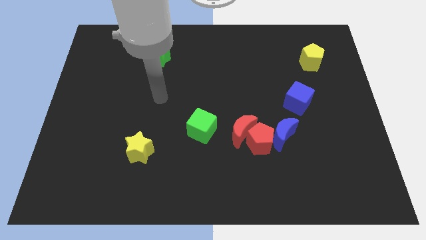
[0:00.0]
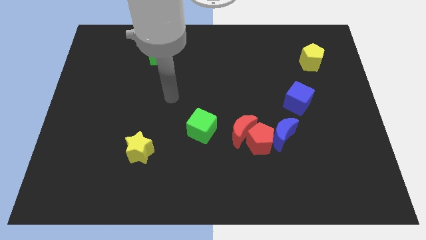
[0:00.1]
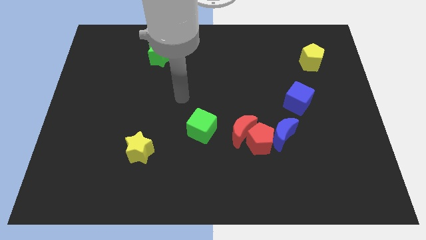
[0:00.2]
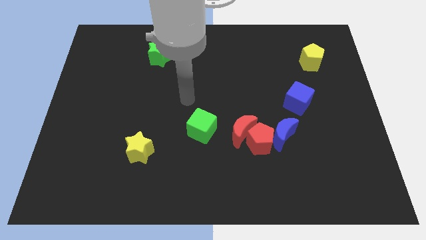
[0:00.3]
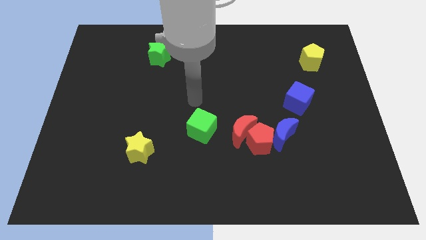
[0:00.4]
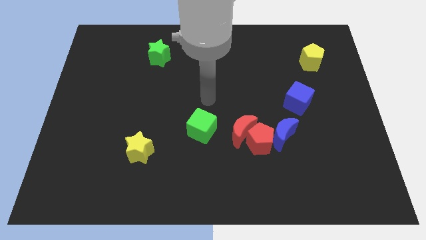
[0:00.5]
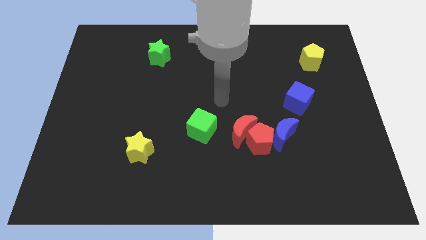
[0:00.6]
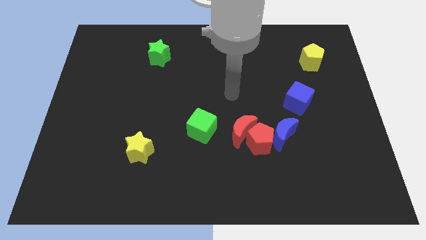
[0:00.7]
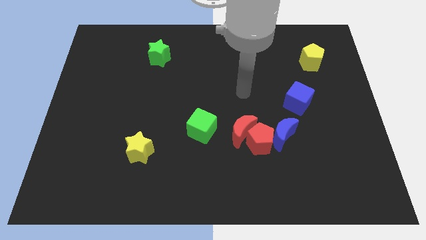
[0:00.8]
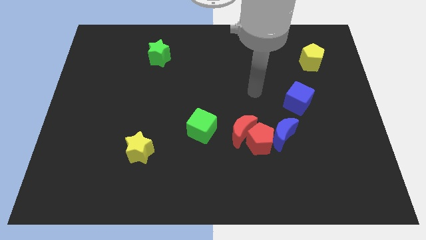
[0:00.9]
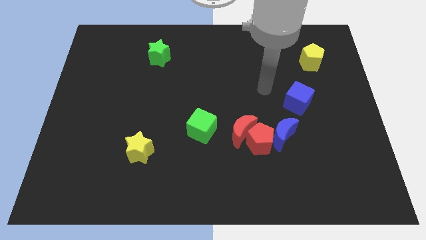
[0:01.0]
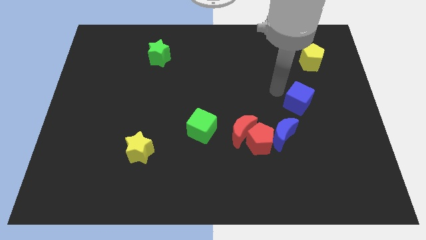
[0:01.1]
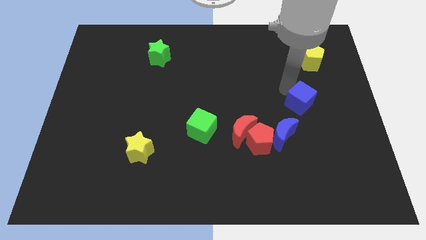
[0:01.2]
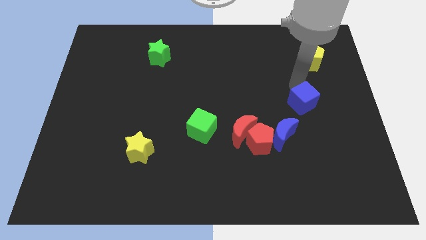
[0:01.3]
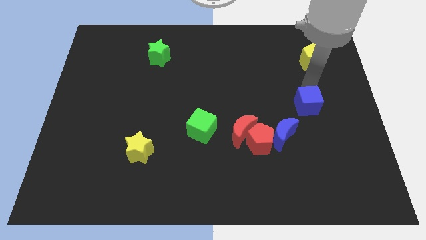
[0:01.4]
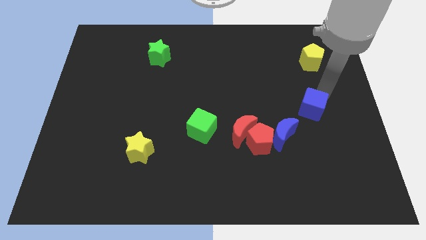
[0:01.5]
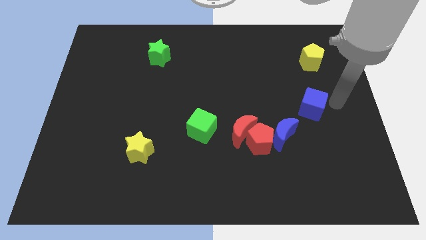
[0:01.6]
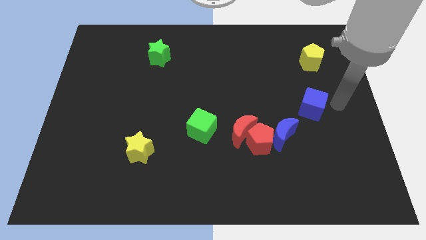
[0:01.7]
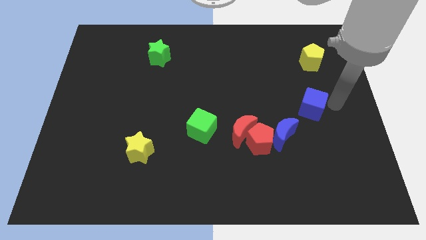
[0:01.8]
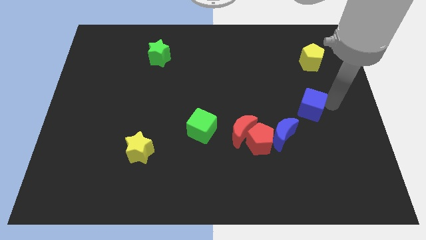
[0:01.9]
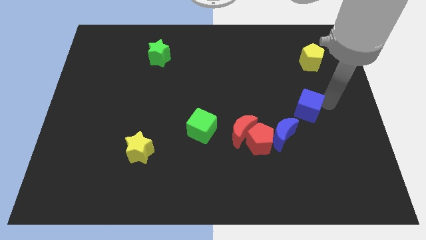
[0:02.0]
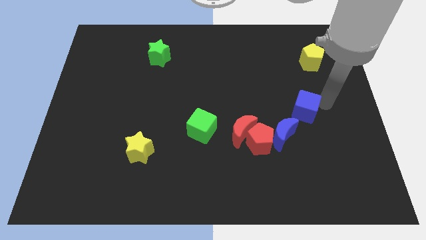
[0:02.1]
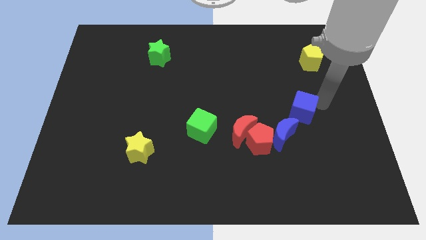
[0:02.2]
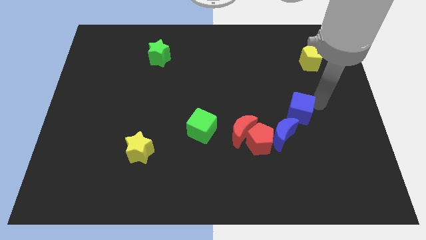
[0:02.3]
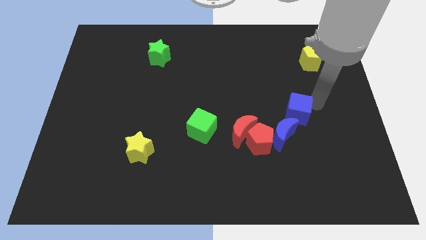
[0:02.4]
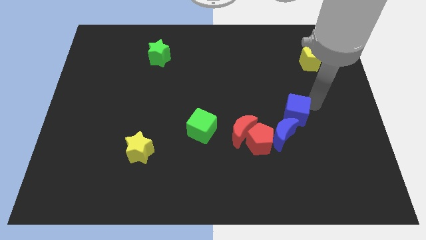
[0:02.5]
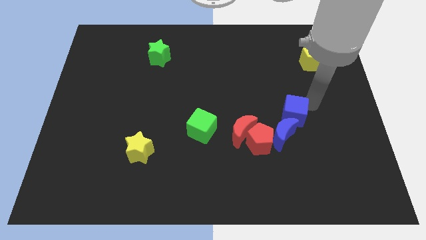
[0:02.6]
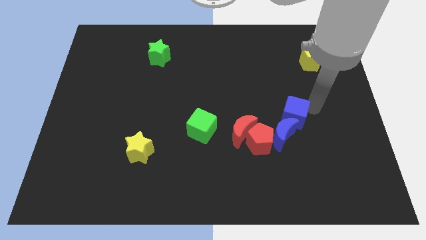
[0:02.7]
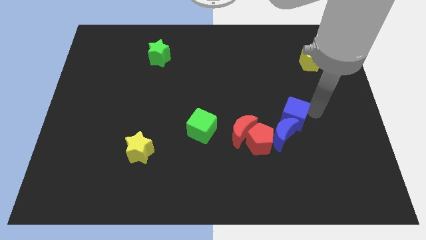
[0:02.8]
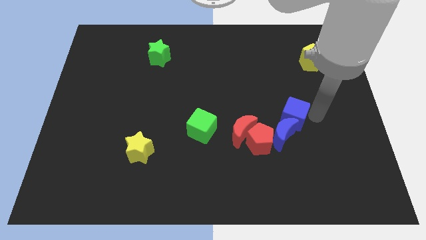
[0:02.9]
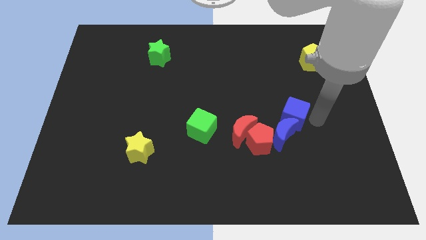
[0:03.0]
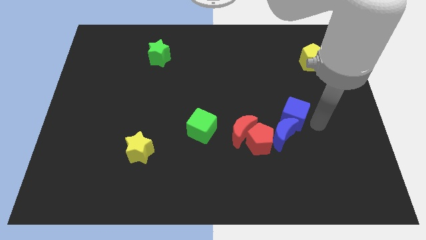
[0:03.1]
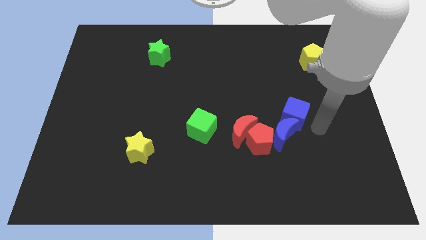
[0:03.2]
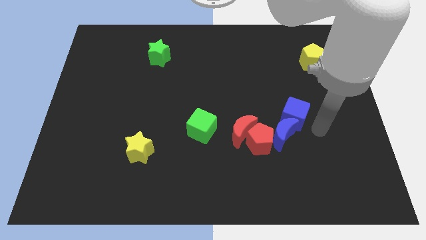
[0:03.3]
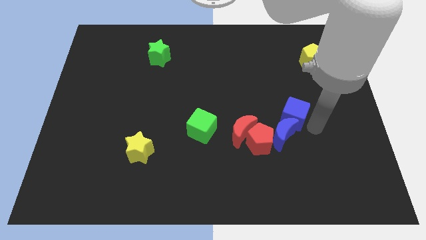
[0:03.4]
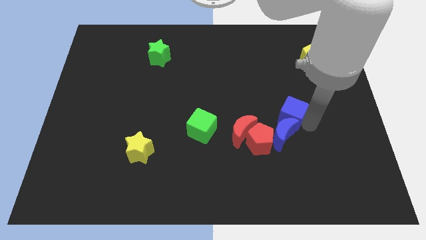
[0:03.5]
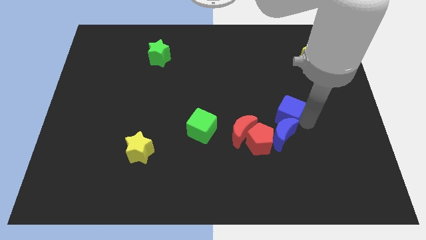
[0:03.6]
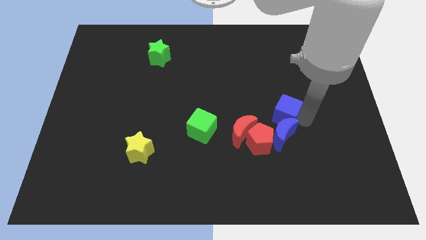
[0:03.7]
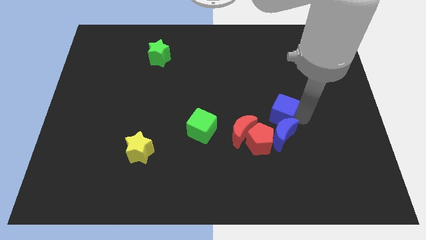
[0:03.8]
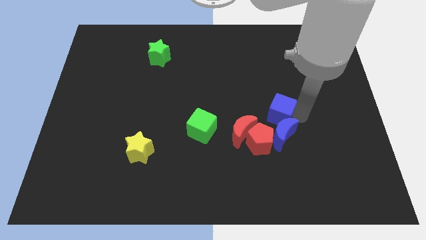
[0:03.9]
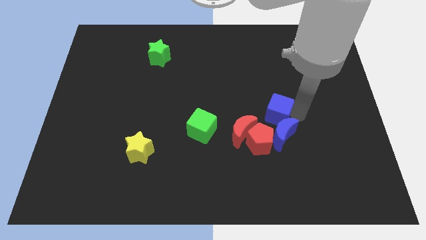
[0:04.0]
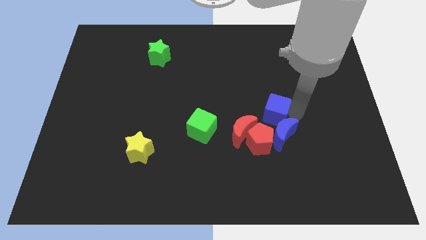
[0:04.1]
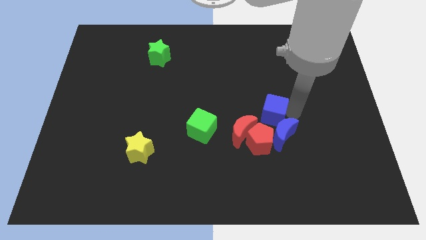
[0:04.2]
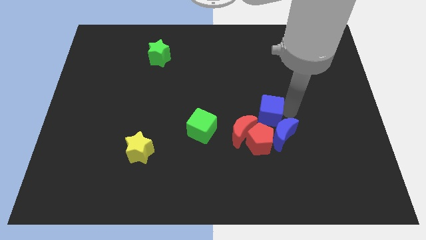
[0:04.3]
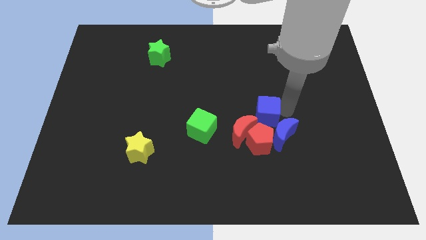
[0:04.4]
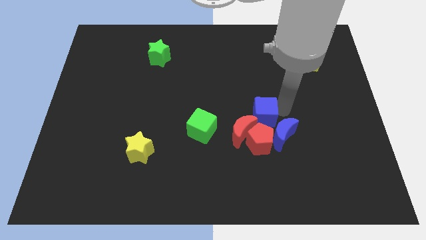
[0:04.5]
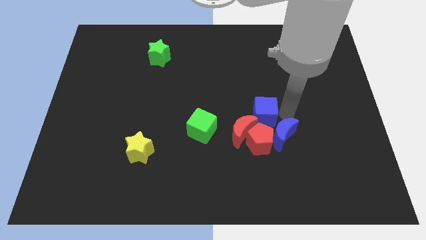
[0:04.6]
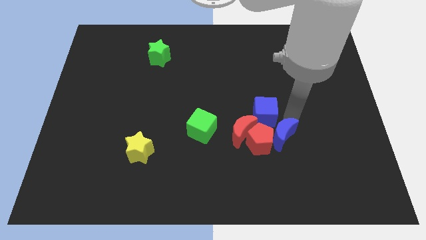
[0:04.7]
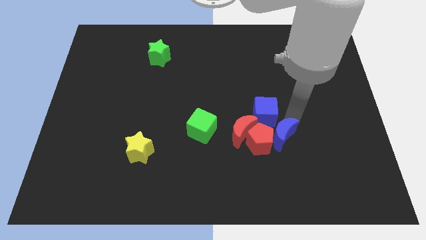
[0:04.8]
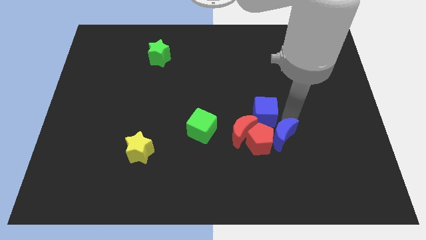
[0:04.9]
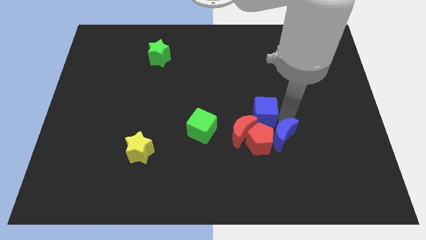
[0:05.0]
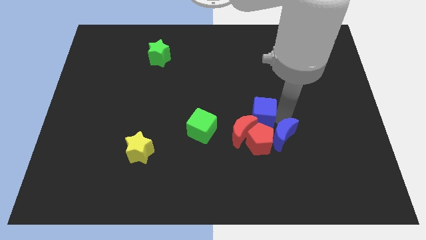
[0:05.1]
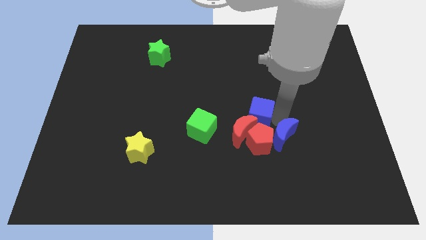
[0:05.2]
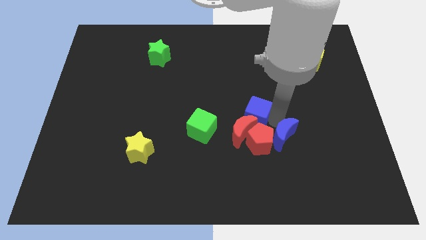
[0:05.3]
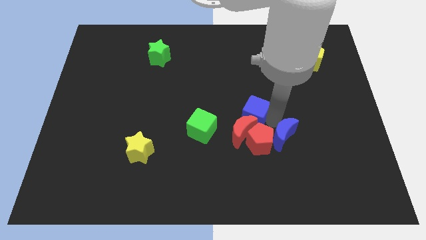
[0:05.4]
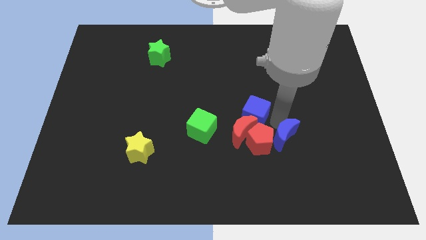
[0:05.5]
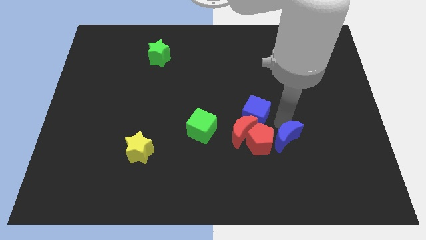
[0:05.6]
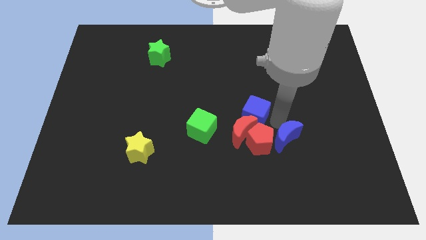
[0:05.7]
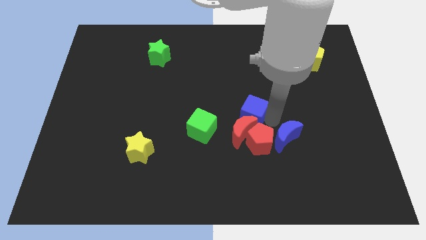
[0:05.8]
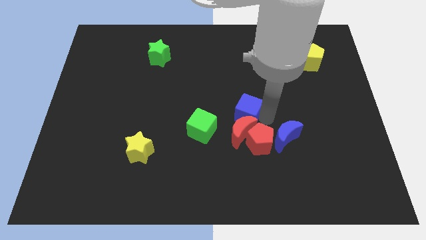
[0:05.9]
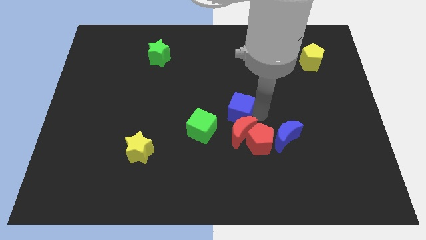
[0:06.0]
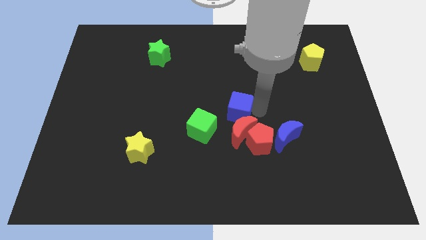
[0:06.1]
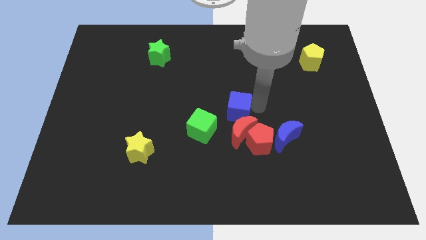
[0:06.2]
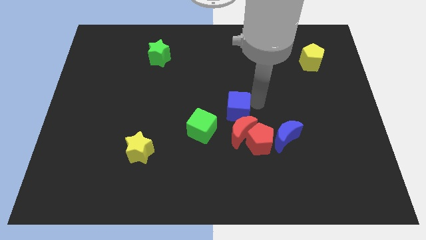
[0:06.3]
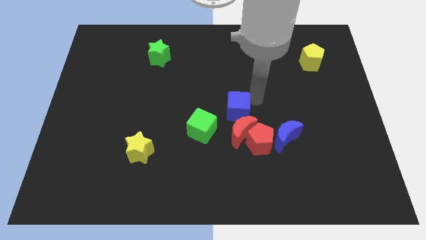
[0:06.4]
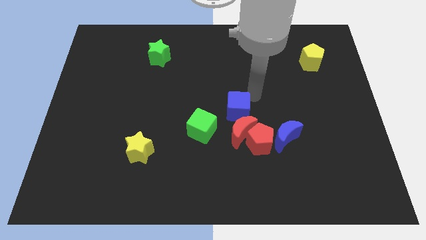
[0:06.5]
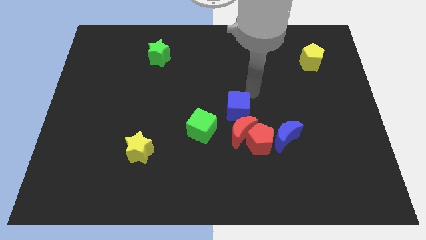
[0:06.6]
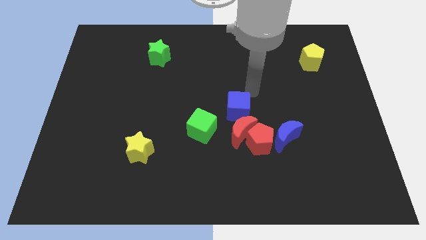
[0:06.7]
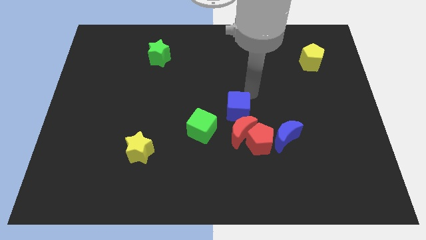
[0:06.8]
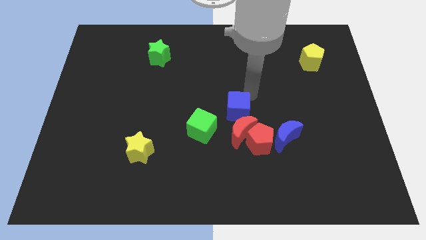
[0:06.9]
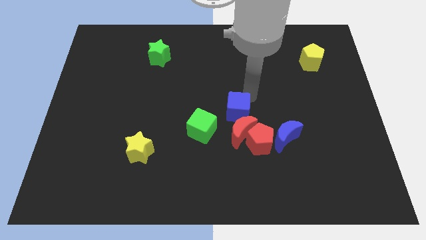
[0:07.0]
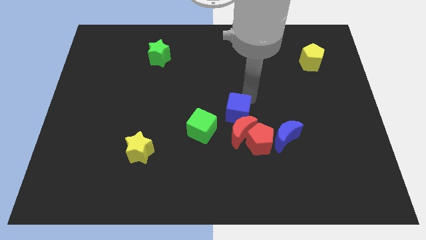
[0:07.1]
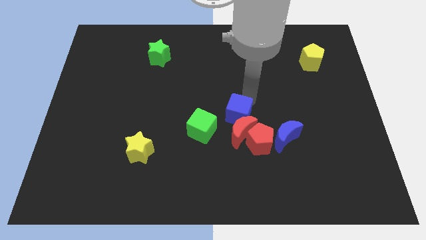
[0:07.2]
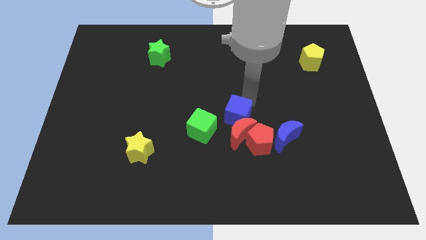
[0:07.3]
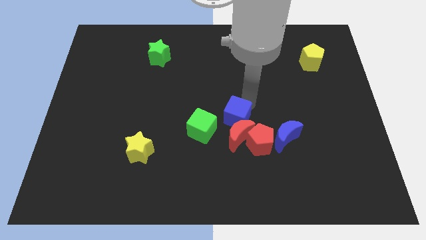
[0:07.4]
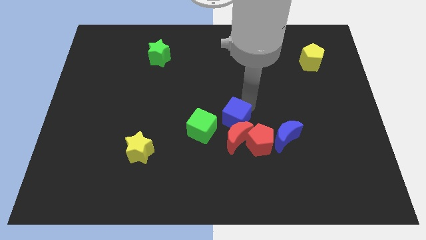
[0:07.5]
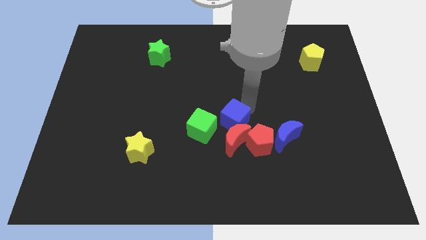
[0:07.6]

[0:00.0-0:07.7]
put the blue cube left of the blue moon

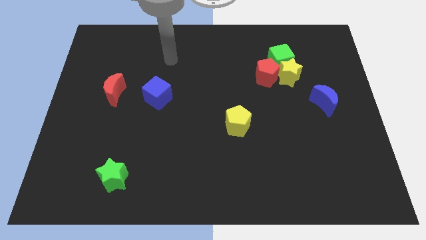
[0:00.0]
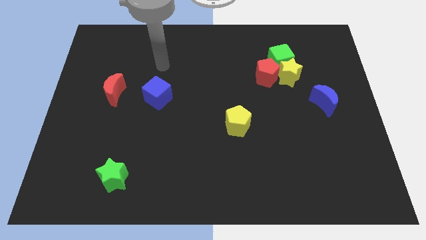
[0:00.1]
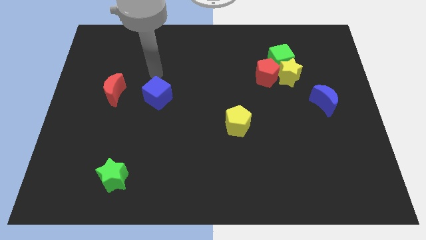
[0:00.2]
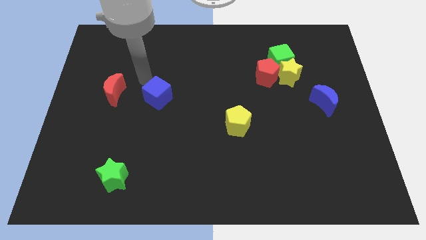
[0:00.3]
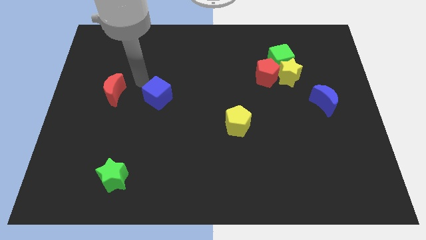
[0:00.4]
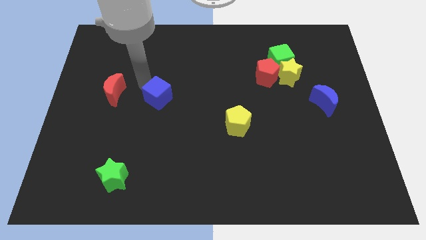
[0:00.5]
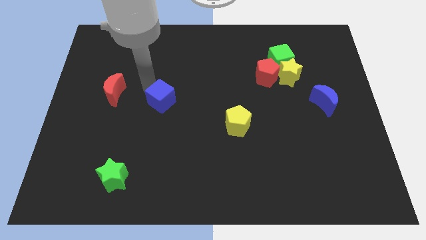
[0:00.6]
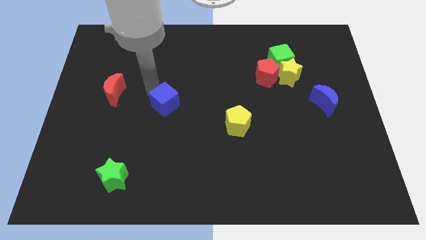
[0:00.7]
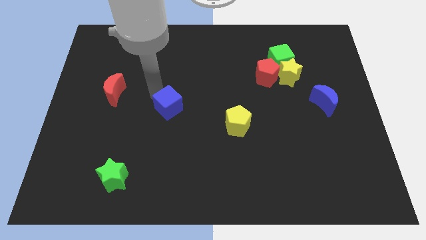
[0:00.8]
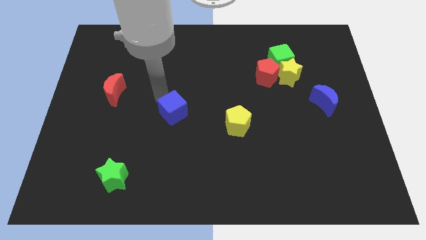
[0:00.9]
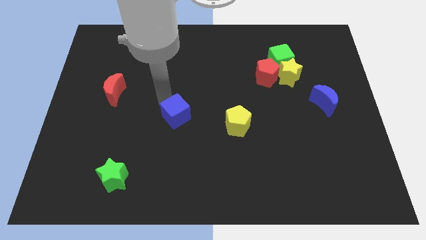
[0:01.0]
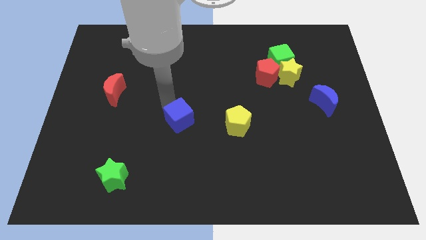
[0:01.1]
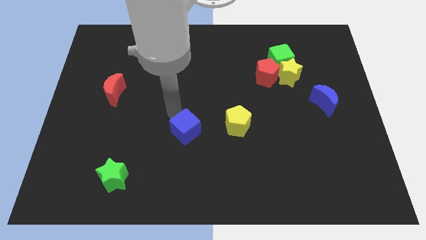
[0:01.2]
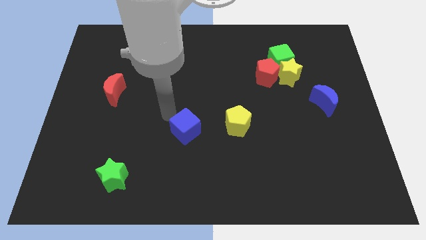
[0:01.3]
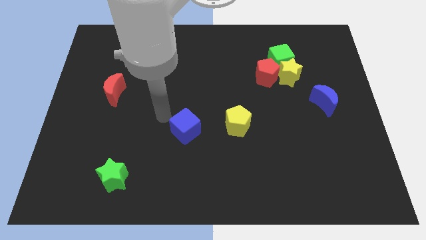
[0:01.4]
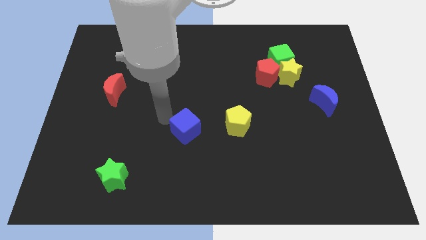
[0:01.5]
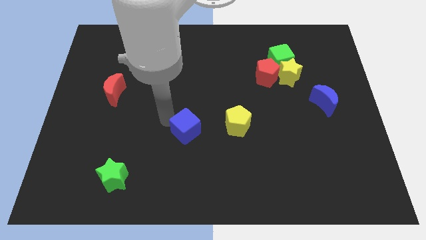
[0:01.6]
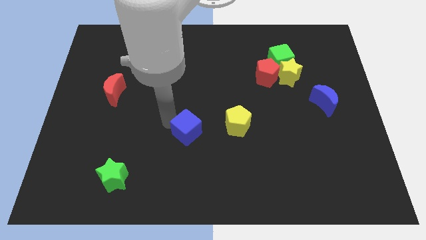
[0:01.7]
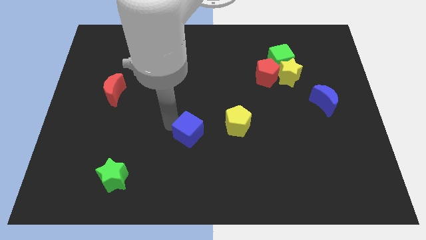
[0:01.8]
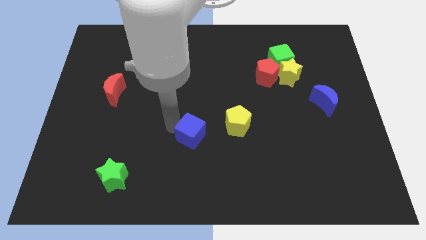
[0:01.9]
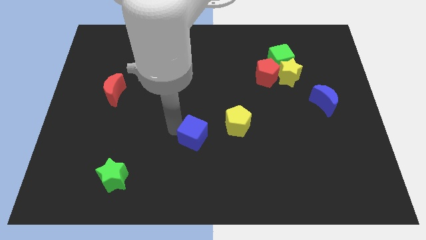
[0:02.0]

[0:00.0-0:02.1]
push the blue cube to the bottom left of the yellow pentagon
